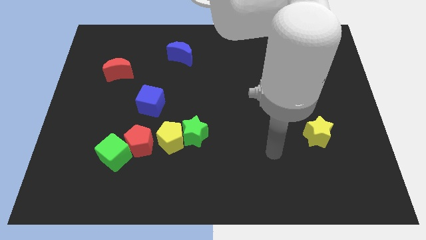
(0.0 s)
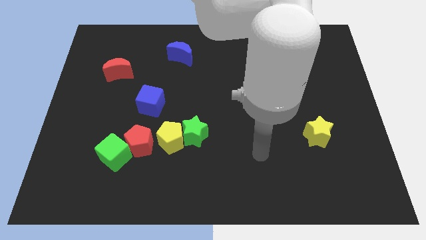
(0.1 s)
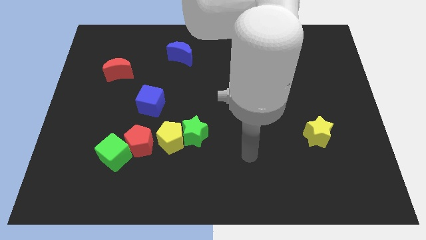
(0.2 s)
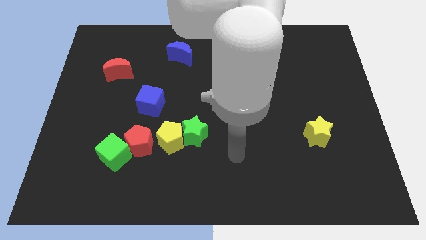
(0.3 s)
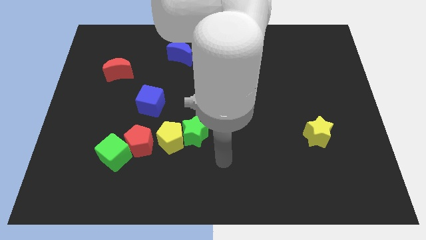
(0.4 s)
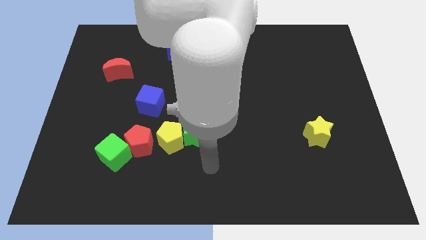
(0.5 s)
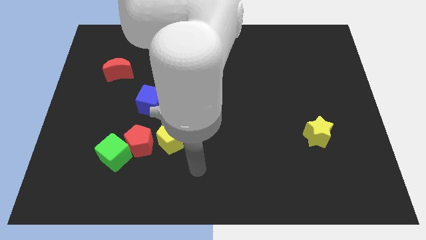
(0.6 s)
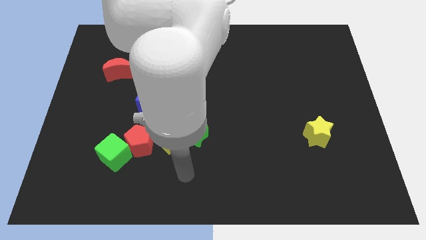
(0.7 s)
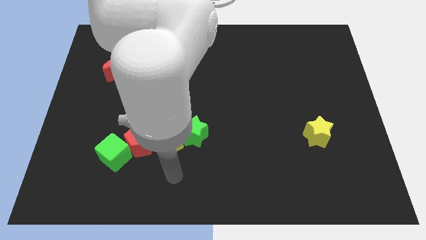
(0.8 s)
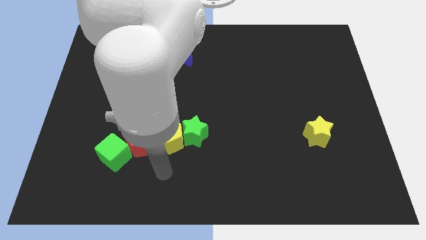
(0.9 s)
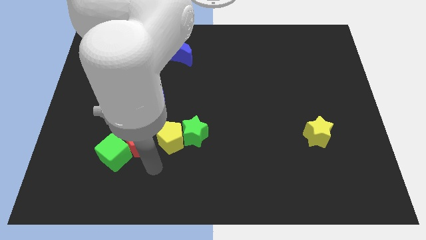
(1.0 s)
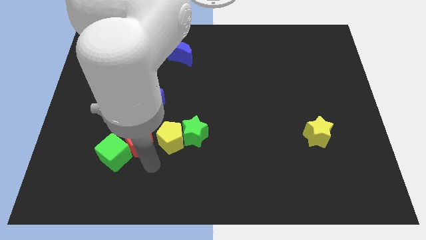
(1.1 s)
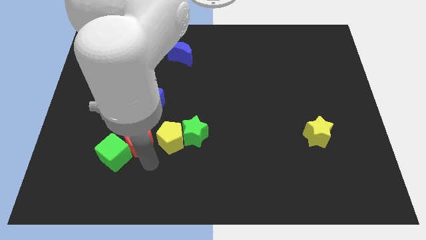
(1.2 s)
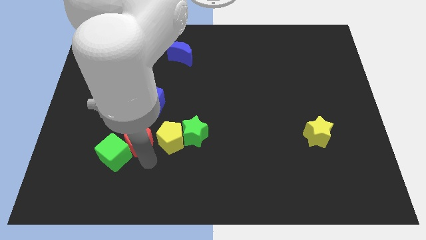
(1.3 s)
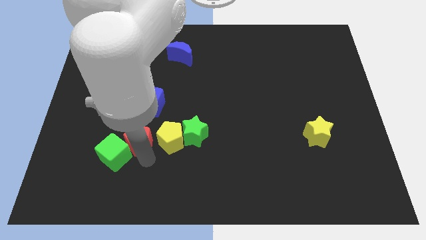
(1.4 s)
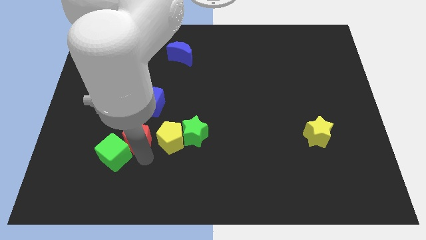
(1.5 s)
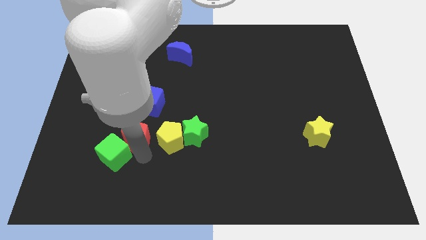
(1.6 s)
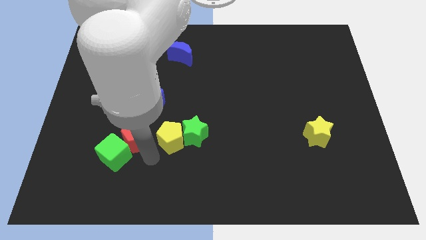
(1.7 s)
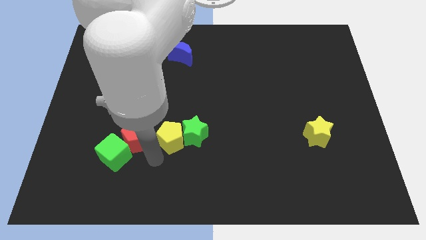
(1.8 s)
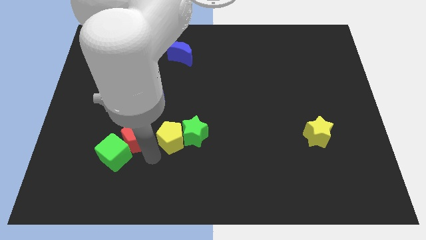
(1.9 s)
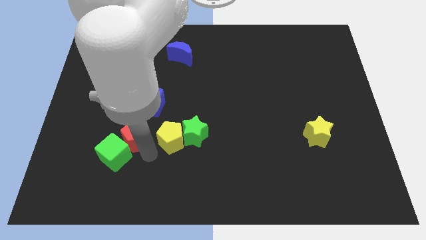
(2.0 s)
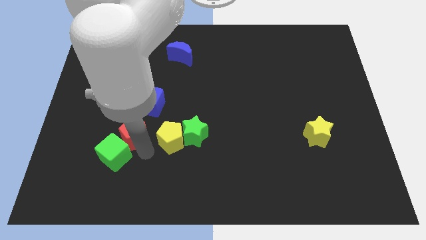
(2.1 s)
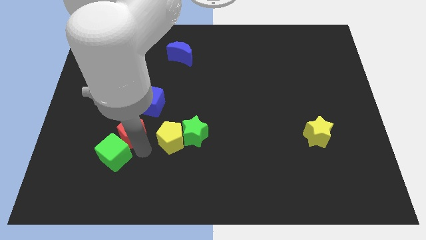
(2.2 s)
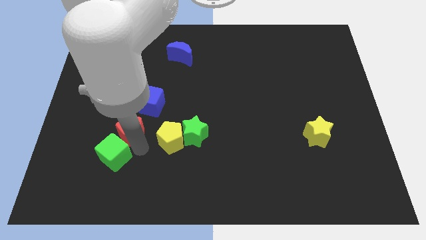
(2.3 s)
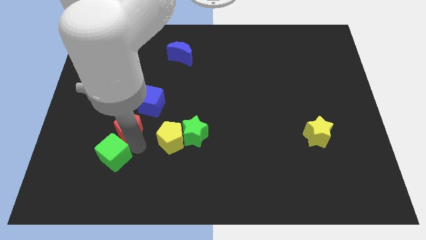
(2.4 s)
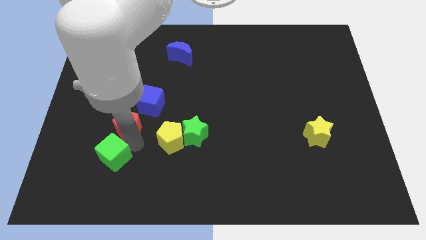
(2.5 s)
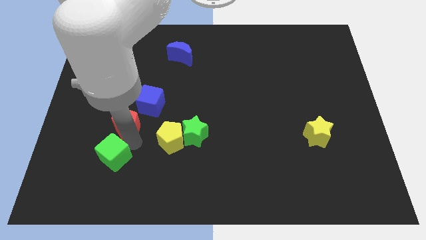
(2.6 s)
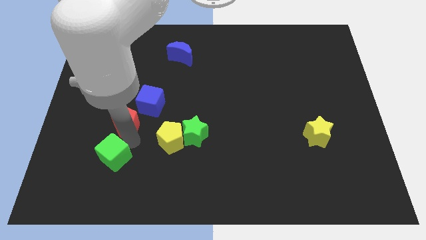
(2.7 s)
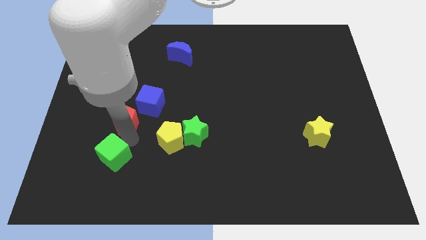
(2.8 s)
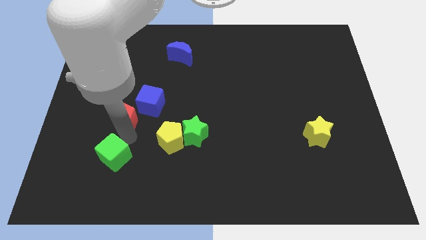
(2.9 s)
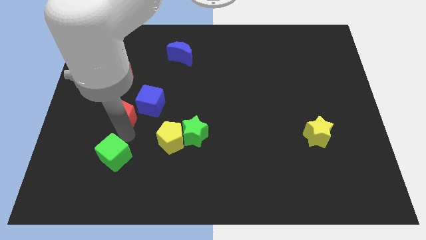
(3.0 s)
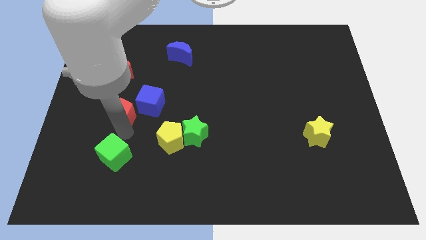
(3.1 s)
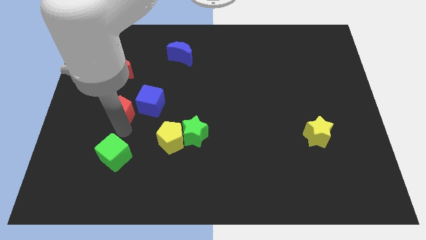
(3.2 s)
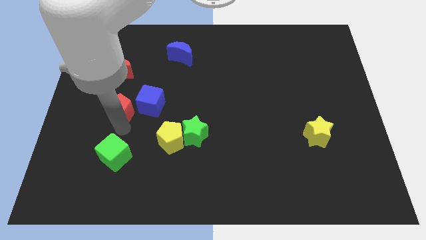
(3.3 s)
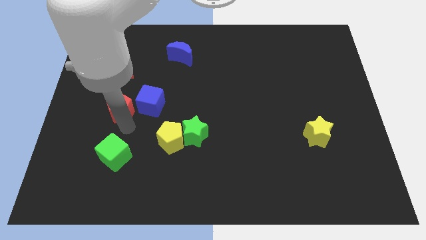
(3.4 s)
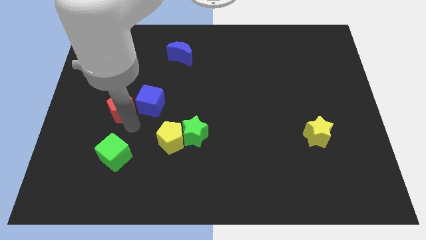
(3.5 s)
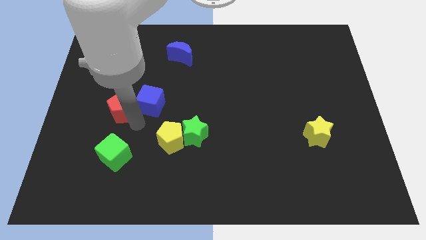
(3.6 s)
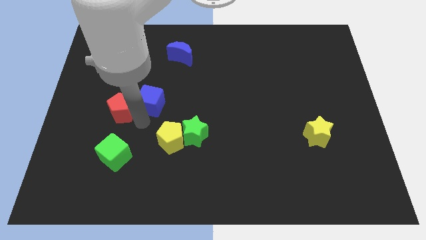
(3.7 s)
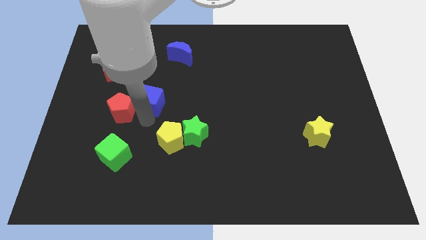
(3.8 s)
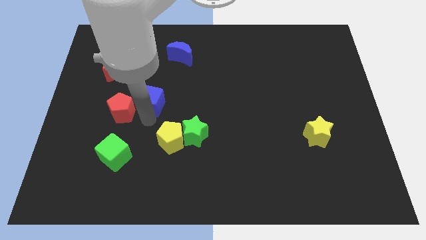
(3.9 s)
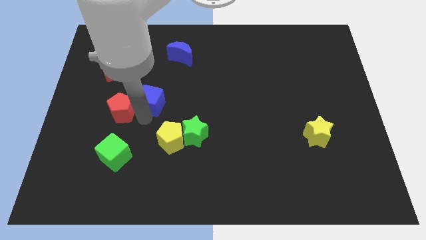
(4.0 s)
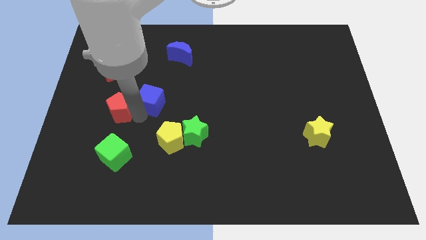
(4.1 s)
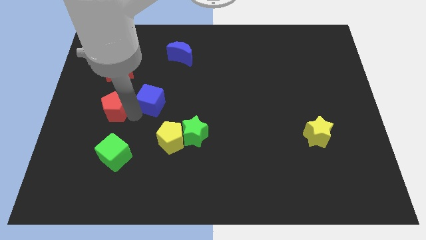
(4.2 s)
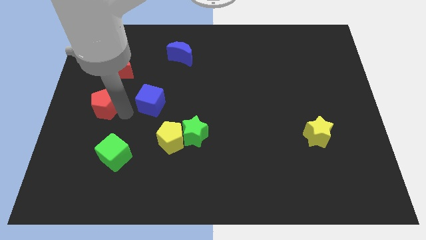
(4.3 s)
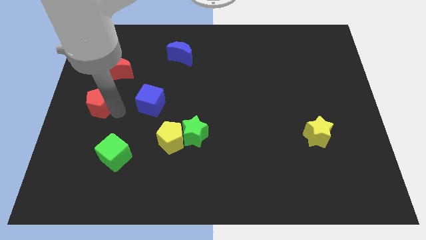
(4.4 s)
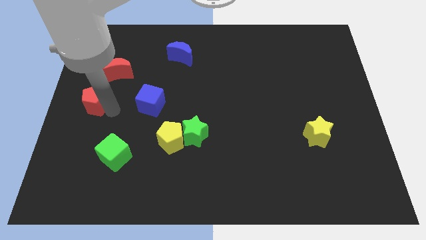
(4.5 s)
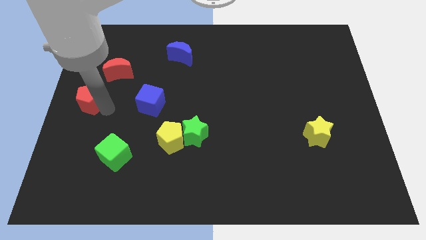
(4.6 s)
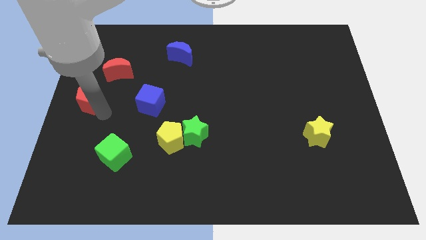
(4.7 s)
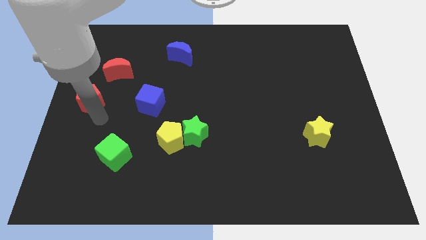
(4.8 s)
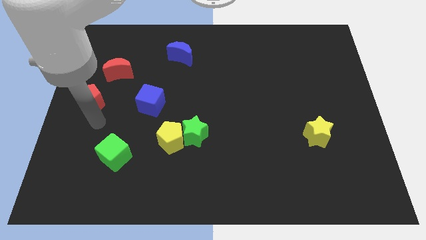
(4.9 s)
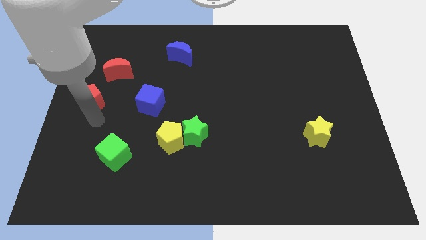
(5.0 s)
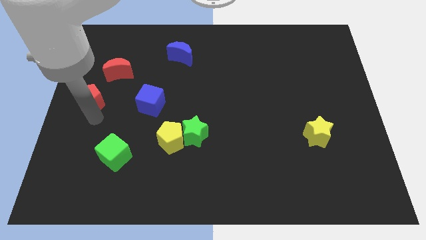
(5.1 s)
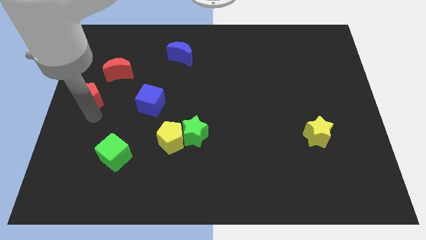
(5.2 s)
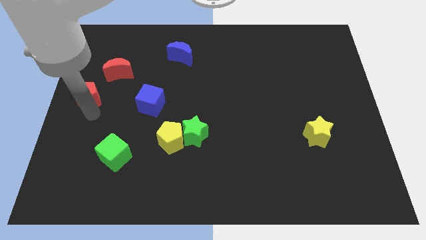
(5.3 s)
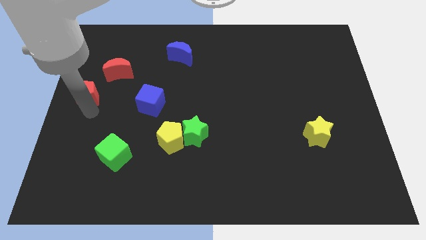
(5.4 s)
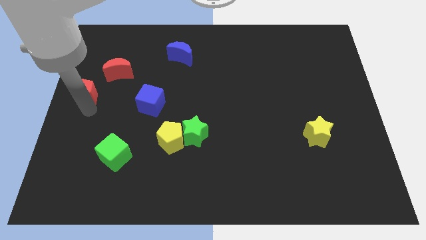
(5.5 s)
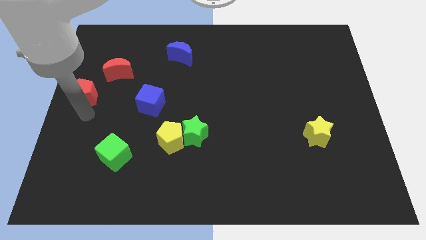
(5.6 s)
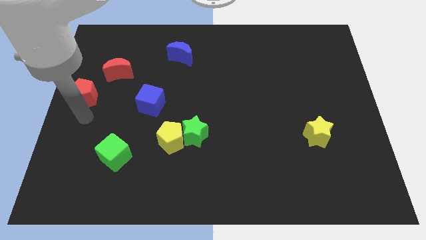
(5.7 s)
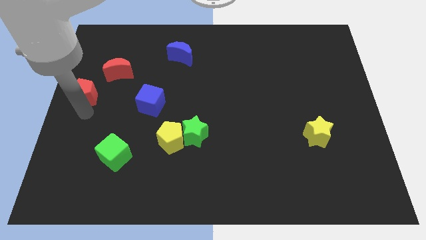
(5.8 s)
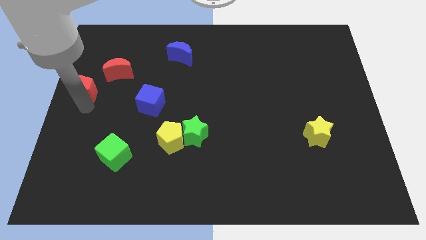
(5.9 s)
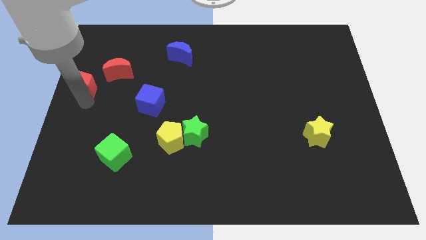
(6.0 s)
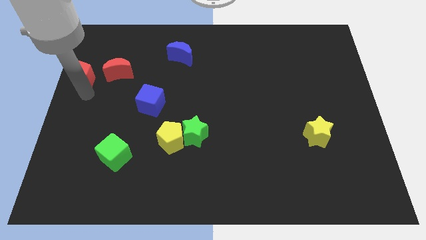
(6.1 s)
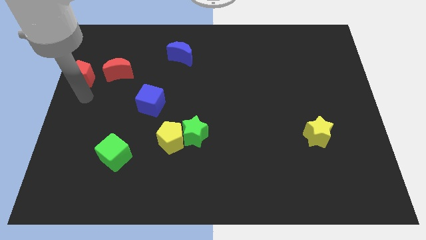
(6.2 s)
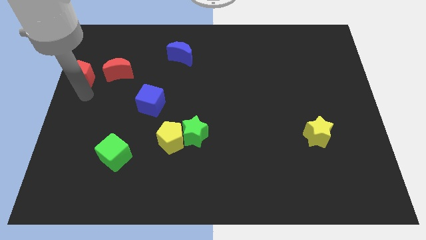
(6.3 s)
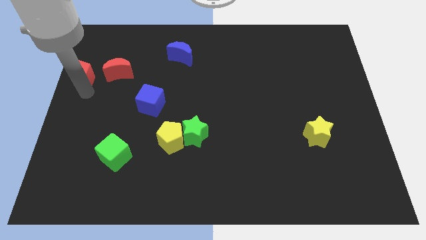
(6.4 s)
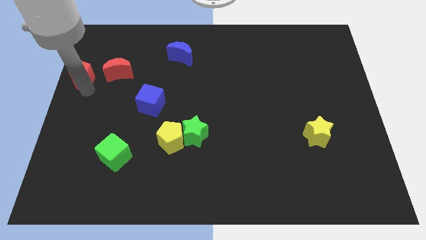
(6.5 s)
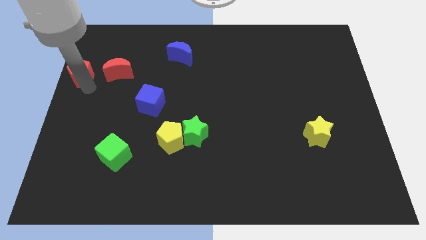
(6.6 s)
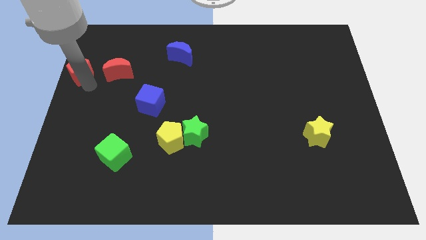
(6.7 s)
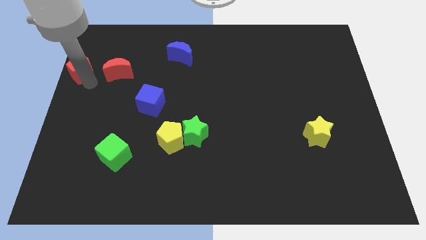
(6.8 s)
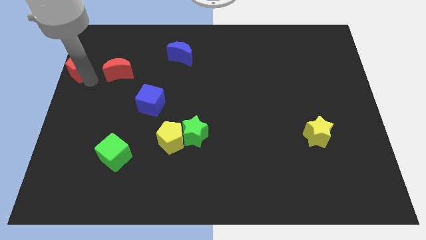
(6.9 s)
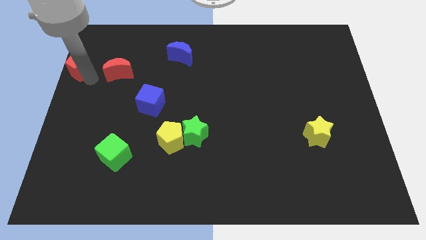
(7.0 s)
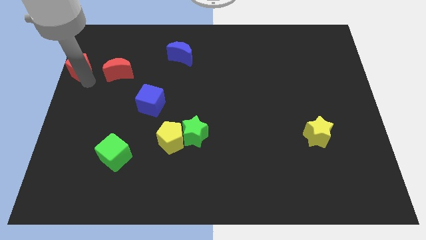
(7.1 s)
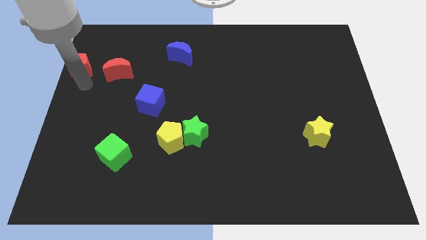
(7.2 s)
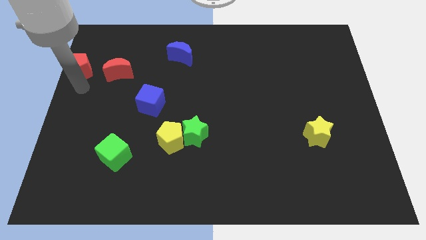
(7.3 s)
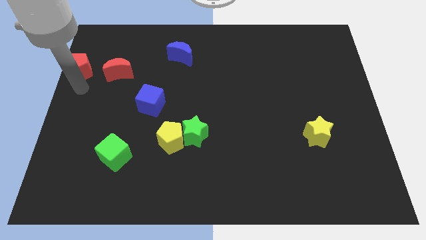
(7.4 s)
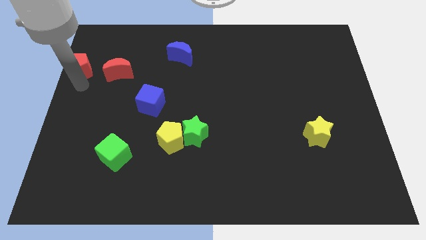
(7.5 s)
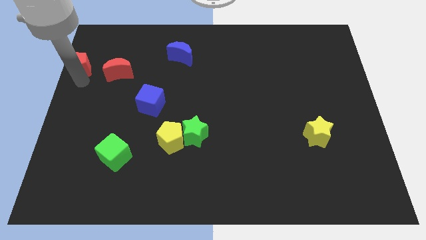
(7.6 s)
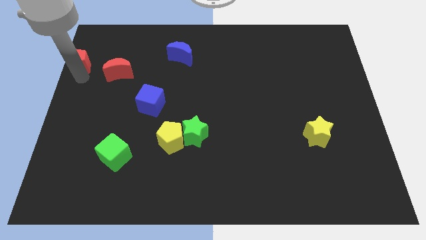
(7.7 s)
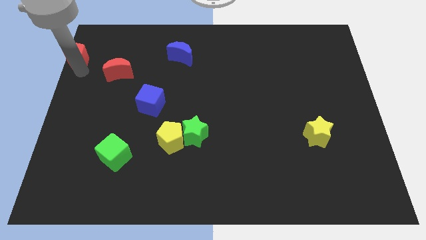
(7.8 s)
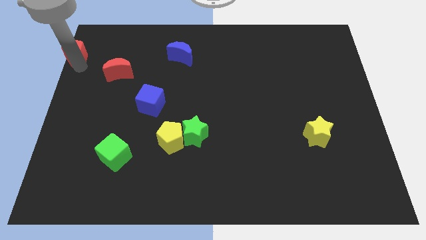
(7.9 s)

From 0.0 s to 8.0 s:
slide the red pentagon to the upper left corner
